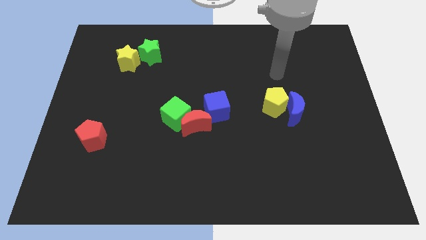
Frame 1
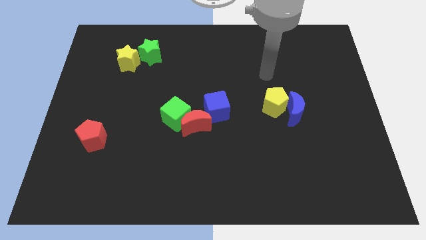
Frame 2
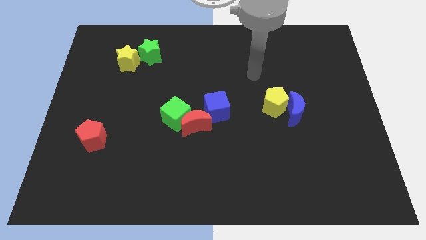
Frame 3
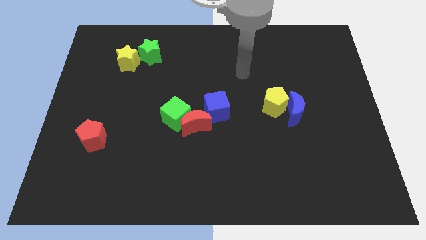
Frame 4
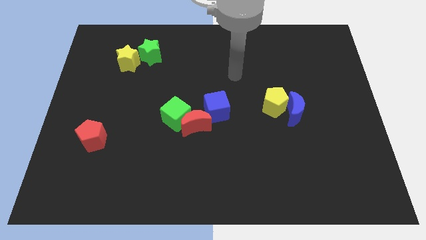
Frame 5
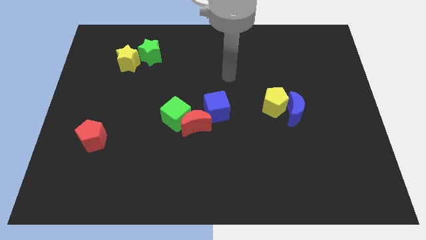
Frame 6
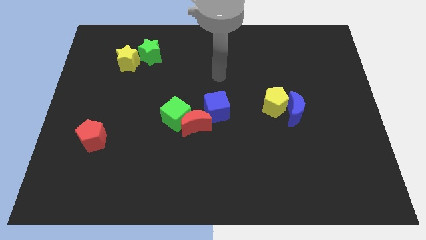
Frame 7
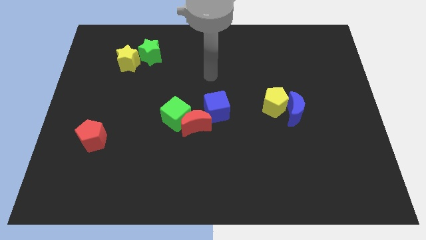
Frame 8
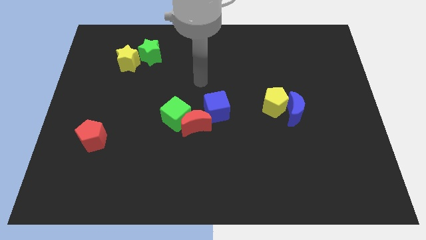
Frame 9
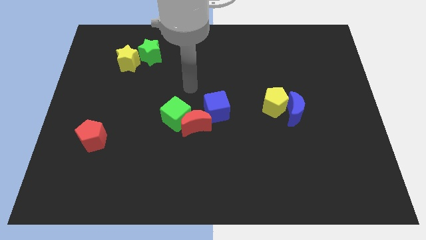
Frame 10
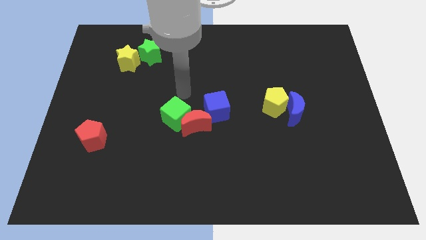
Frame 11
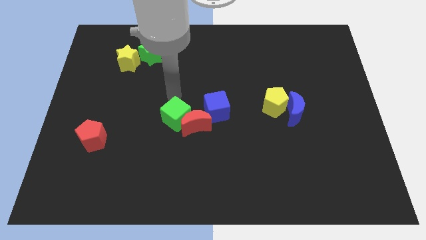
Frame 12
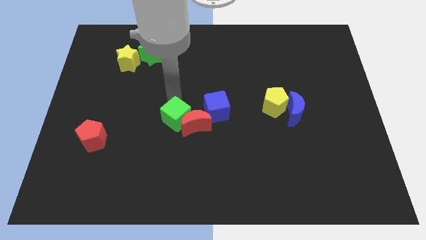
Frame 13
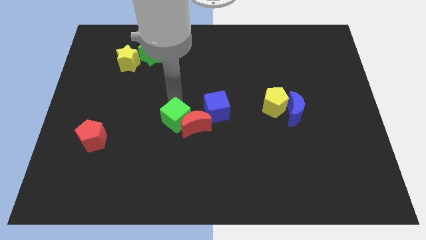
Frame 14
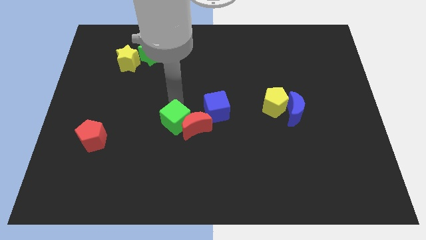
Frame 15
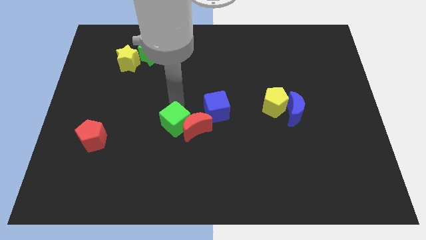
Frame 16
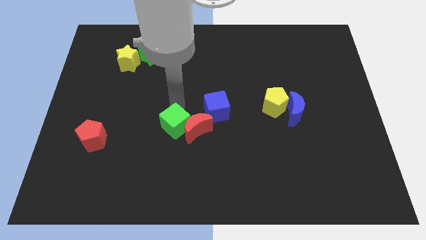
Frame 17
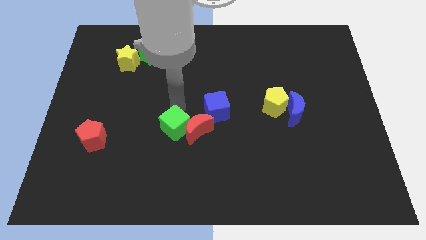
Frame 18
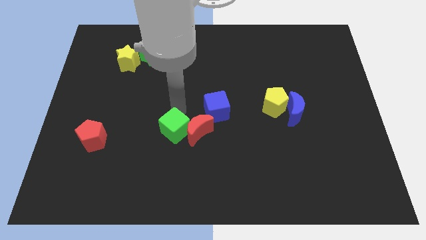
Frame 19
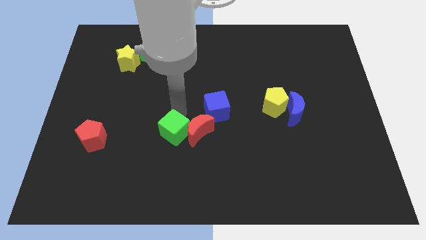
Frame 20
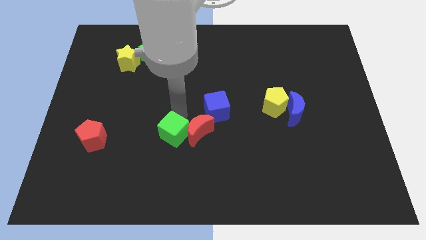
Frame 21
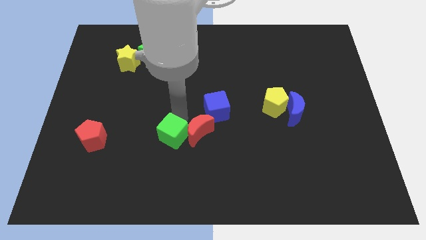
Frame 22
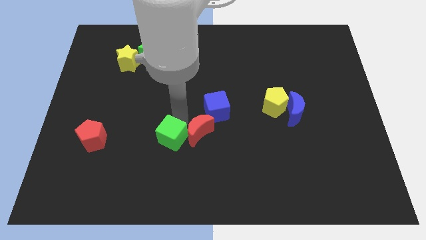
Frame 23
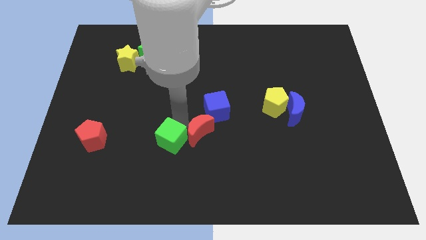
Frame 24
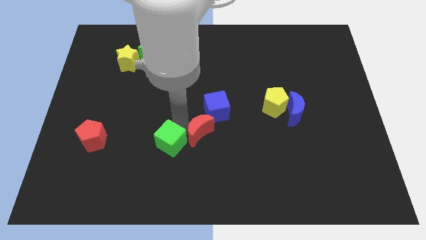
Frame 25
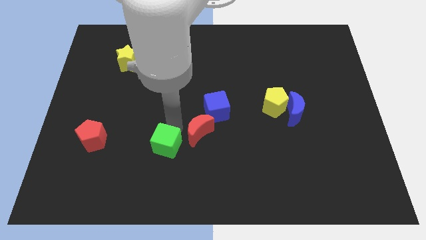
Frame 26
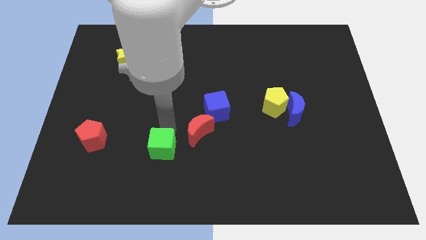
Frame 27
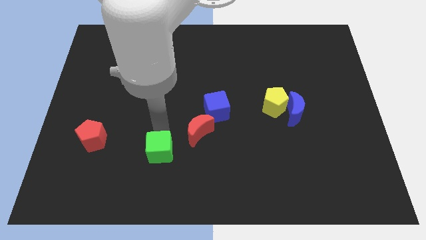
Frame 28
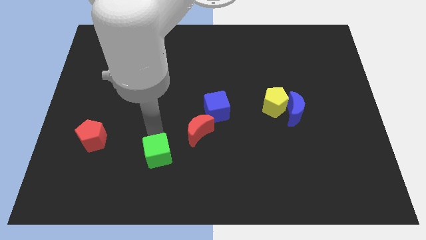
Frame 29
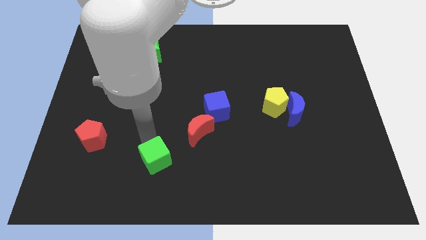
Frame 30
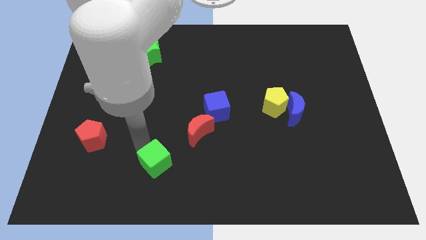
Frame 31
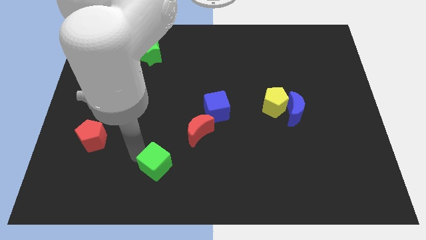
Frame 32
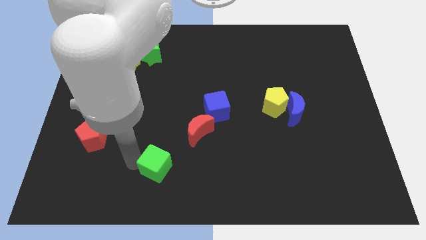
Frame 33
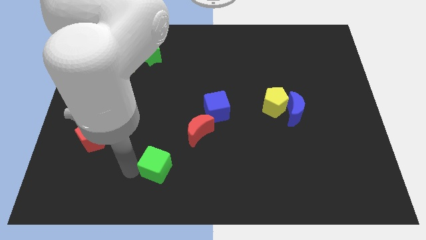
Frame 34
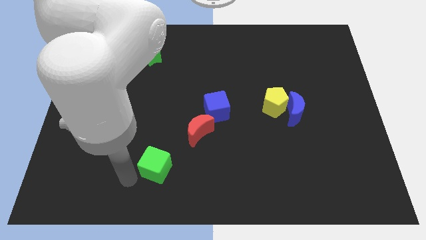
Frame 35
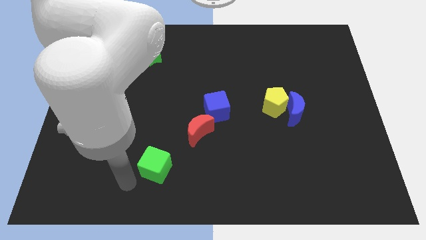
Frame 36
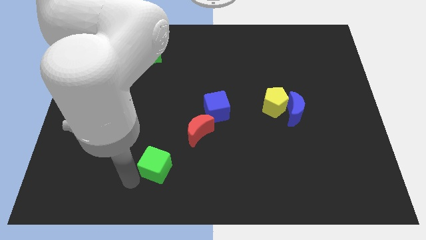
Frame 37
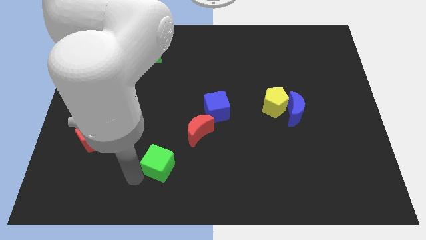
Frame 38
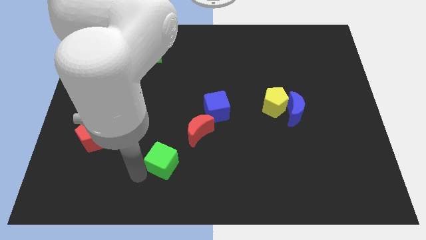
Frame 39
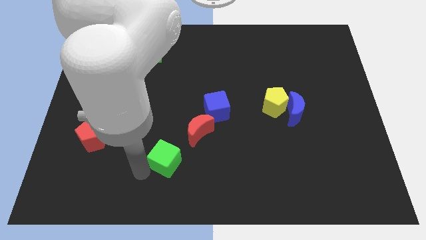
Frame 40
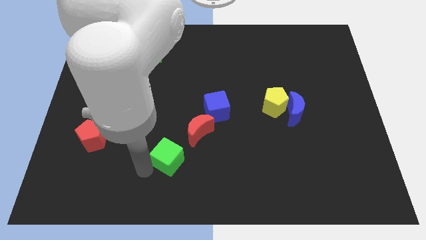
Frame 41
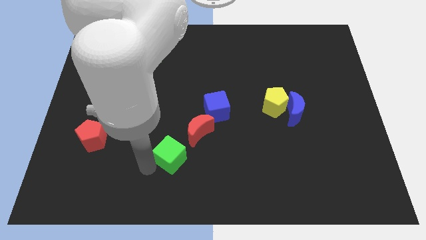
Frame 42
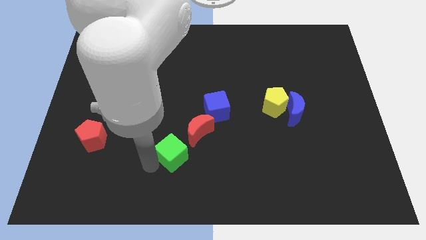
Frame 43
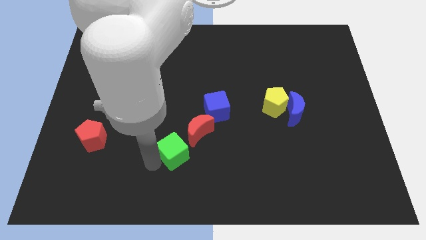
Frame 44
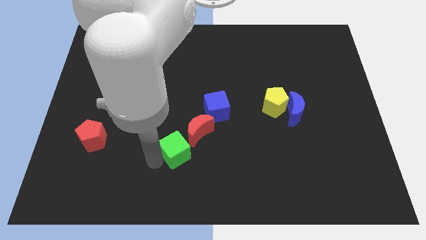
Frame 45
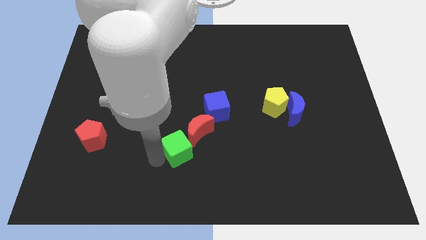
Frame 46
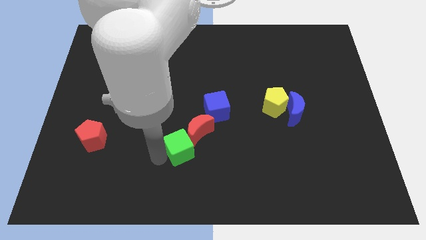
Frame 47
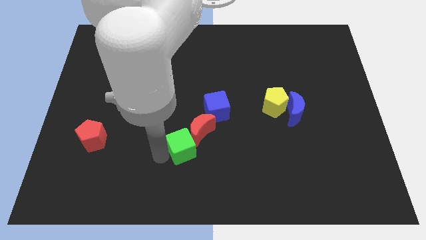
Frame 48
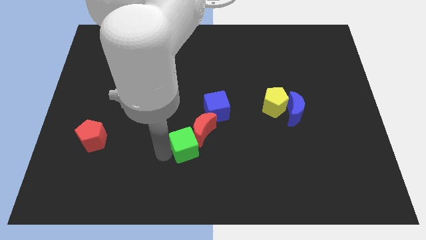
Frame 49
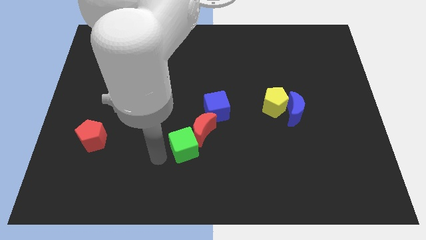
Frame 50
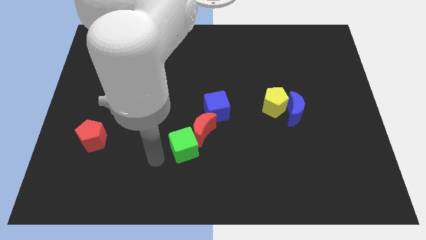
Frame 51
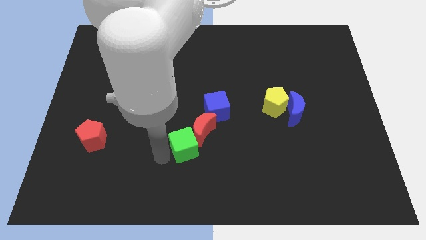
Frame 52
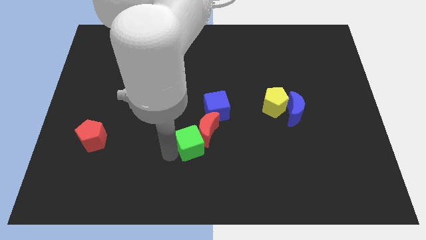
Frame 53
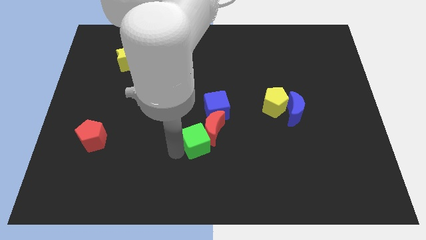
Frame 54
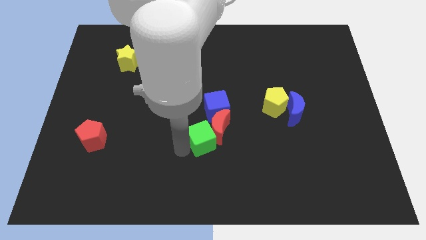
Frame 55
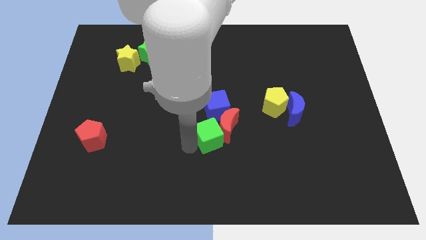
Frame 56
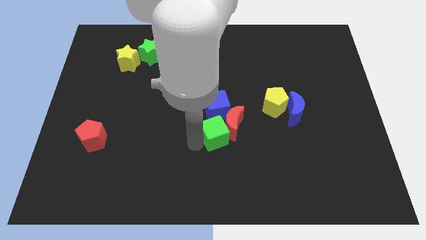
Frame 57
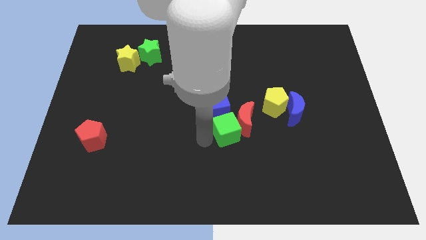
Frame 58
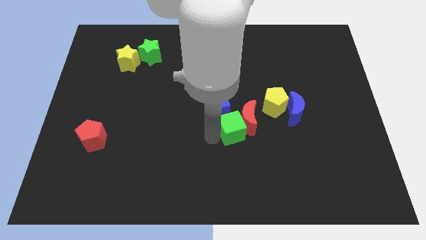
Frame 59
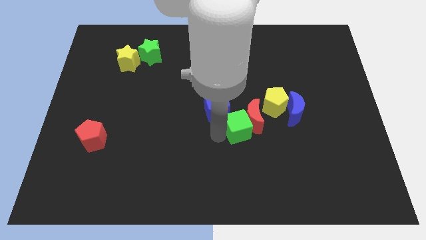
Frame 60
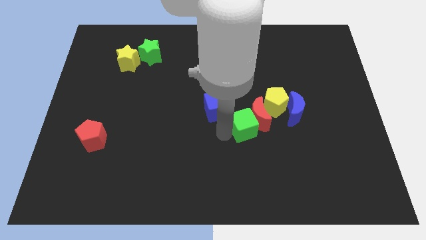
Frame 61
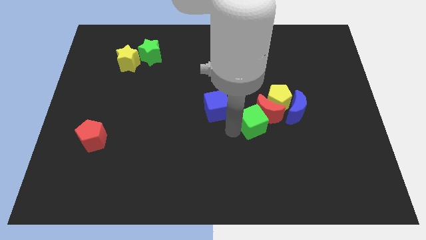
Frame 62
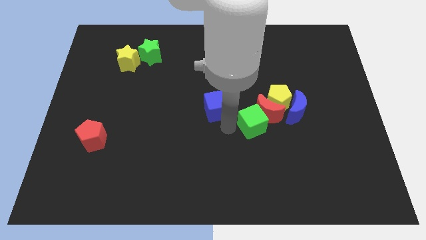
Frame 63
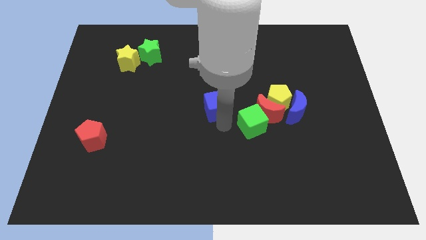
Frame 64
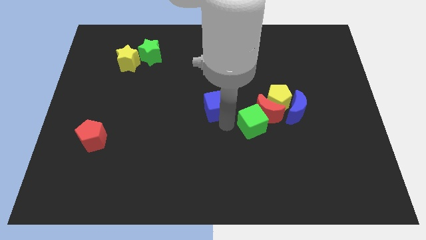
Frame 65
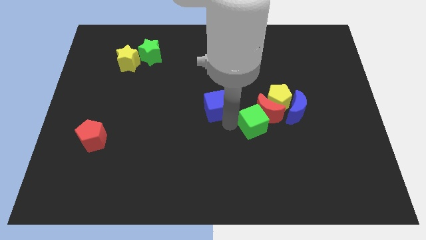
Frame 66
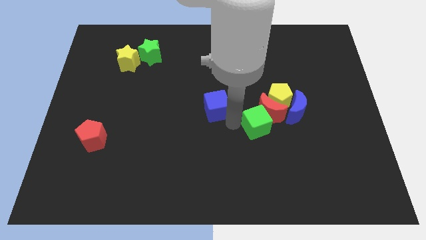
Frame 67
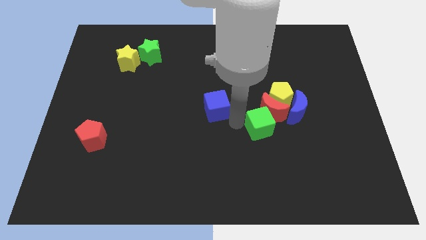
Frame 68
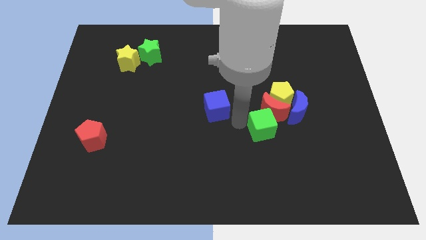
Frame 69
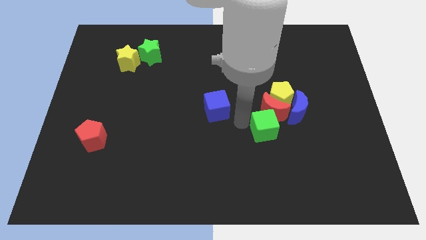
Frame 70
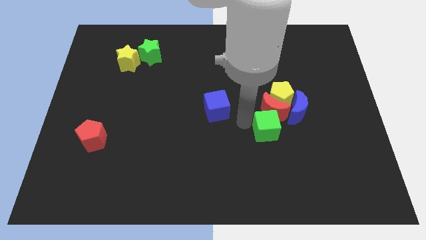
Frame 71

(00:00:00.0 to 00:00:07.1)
move the green cube to the right

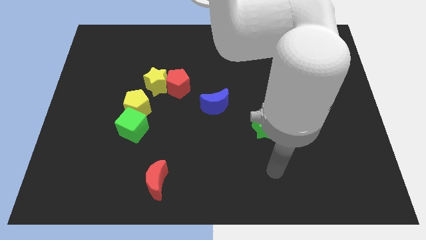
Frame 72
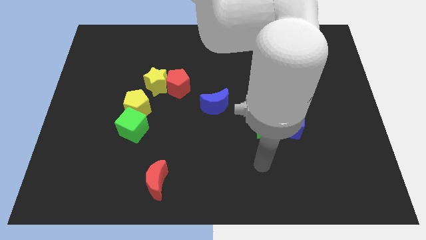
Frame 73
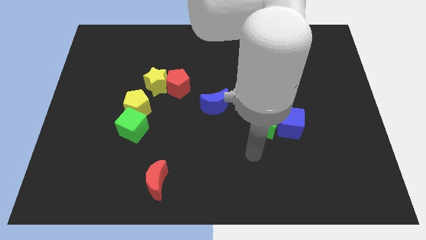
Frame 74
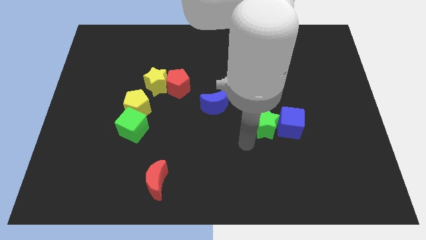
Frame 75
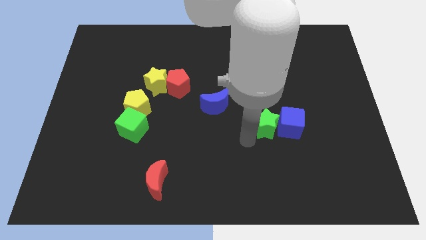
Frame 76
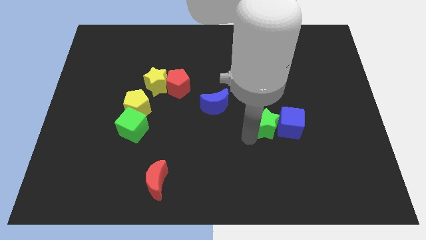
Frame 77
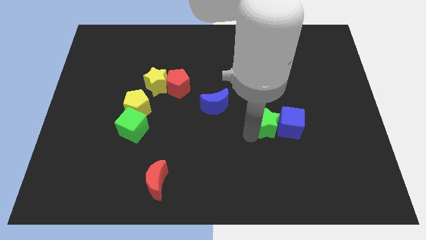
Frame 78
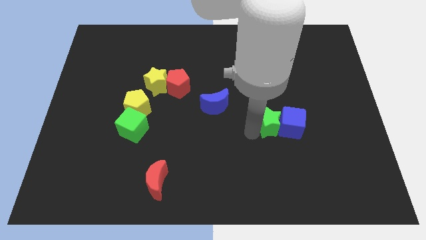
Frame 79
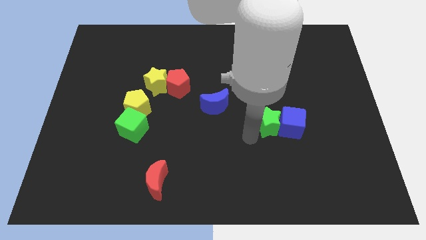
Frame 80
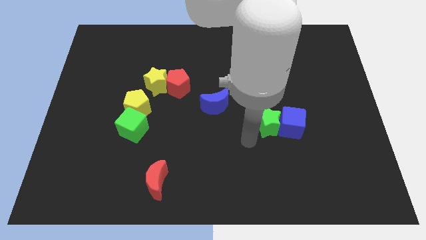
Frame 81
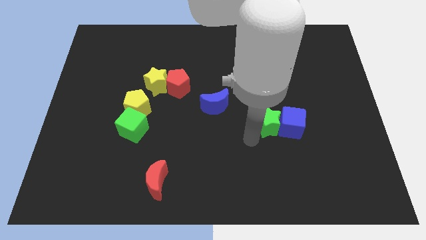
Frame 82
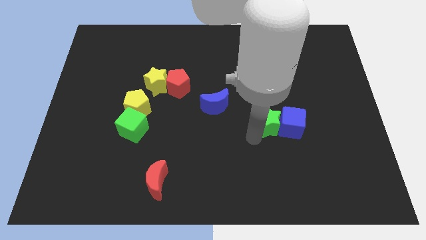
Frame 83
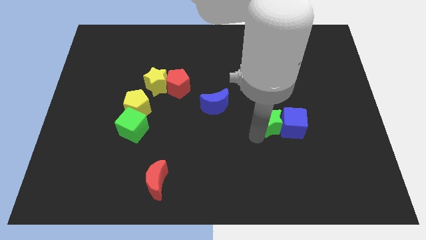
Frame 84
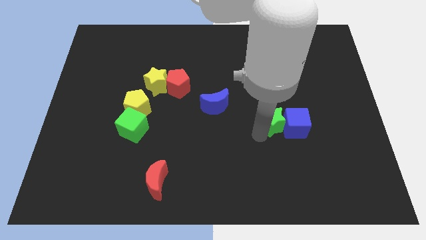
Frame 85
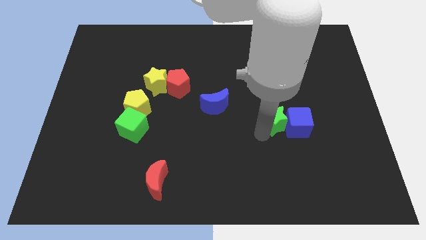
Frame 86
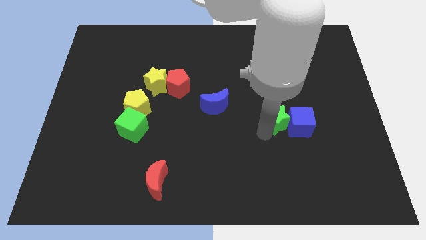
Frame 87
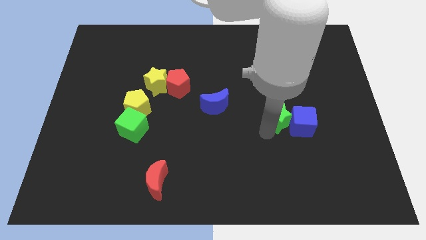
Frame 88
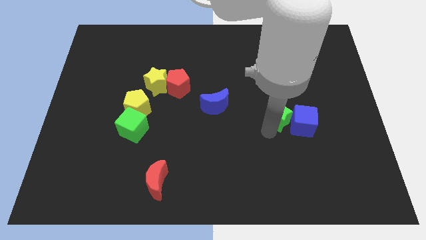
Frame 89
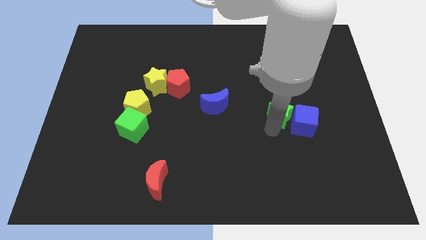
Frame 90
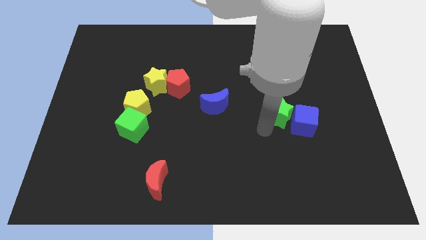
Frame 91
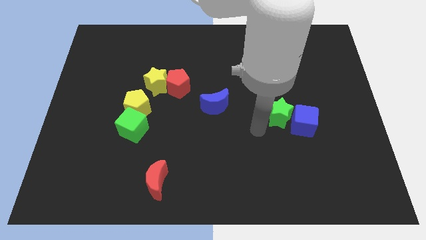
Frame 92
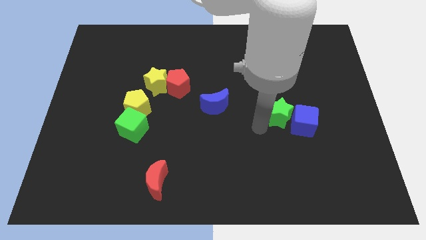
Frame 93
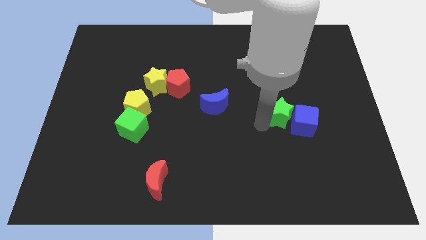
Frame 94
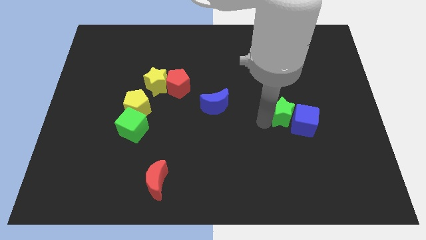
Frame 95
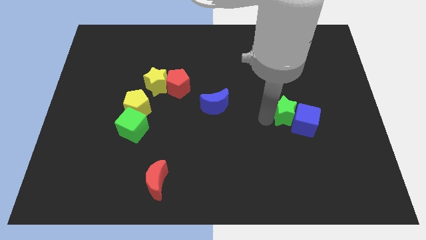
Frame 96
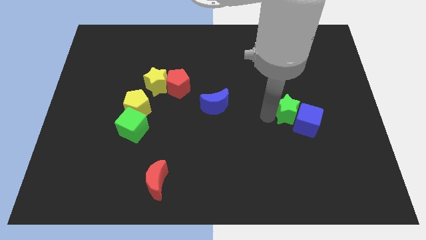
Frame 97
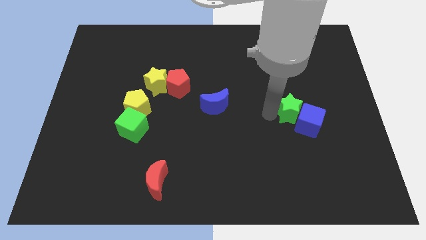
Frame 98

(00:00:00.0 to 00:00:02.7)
slide the green star upwards and right diagonally a little bit
